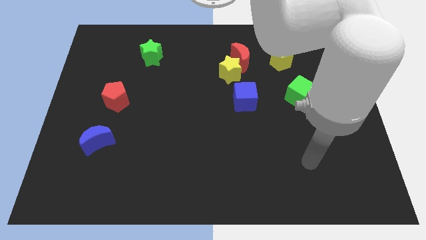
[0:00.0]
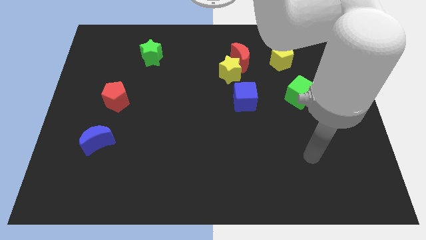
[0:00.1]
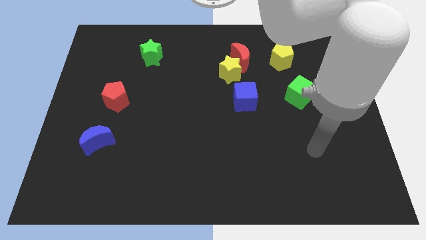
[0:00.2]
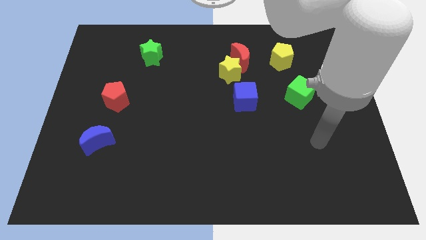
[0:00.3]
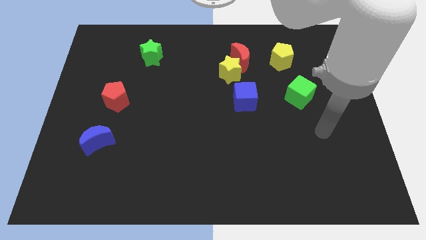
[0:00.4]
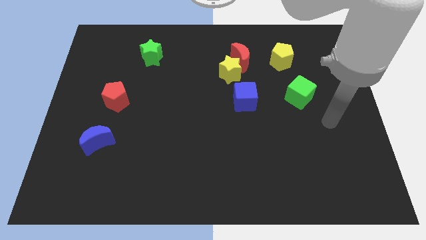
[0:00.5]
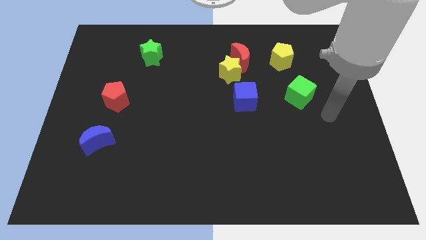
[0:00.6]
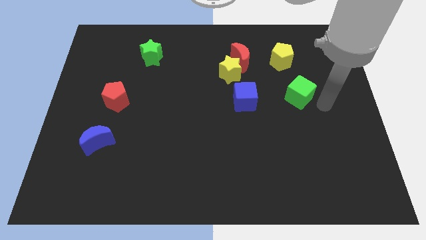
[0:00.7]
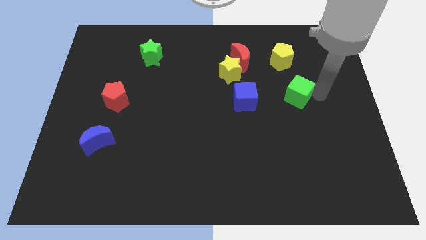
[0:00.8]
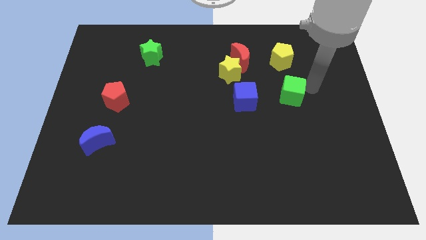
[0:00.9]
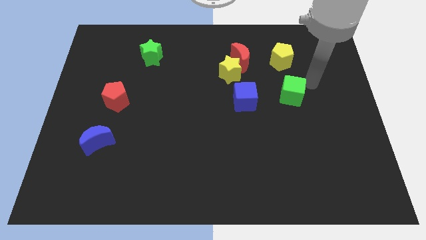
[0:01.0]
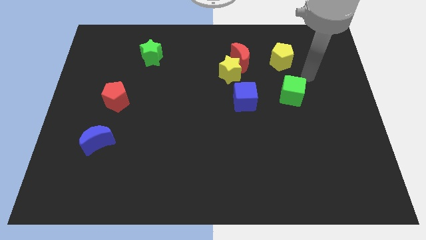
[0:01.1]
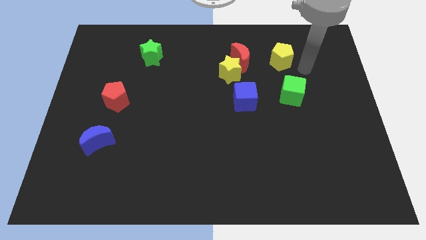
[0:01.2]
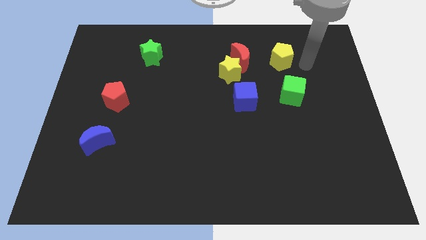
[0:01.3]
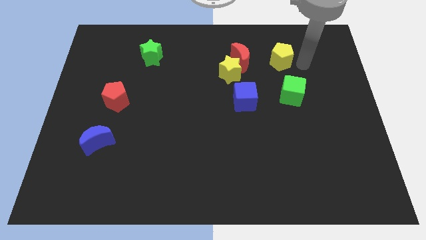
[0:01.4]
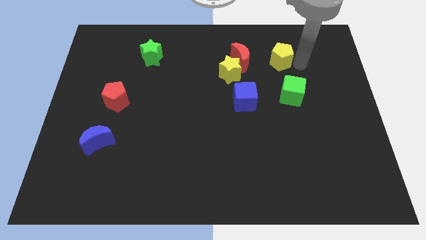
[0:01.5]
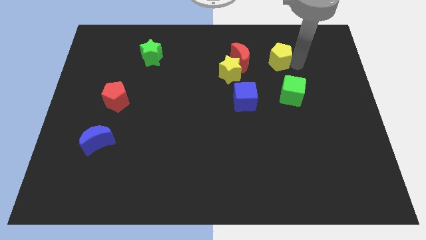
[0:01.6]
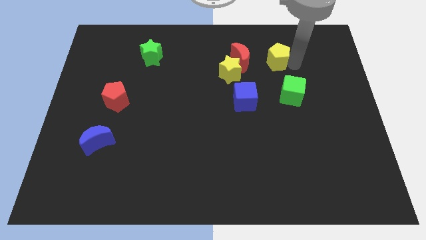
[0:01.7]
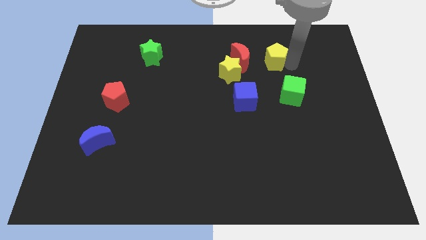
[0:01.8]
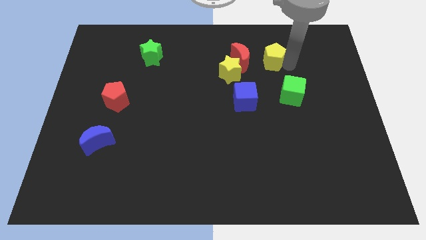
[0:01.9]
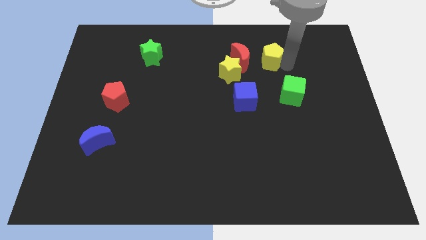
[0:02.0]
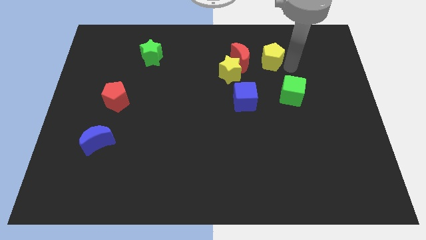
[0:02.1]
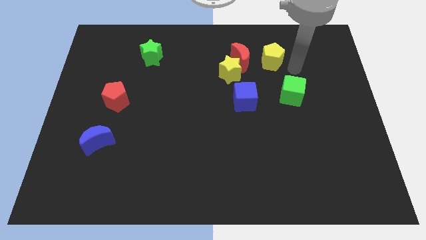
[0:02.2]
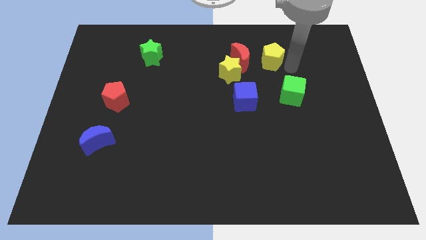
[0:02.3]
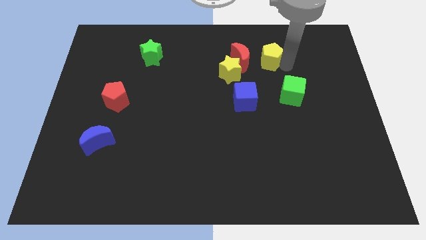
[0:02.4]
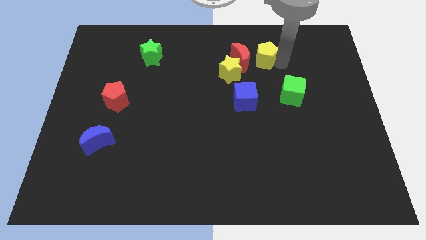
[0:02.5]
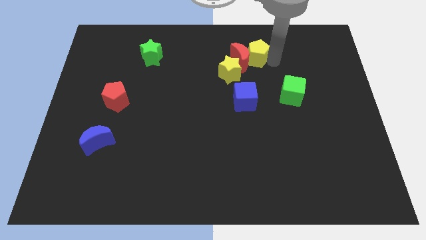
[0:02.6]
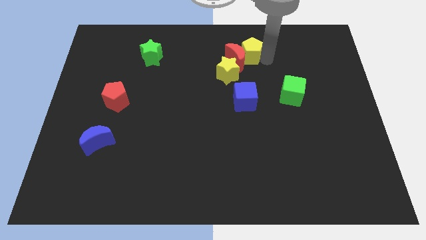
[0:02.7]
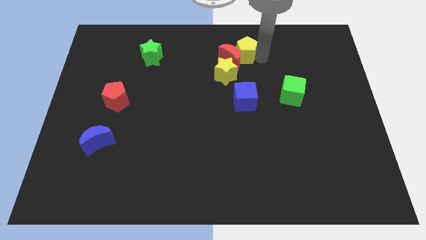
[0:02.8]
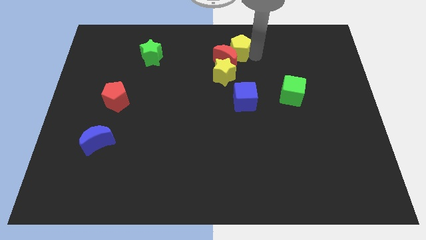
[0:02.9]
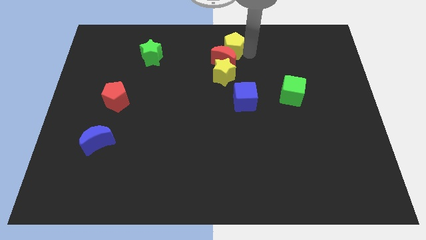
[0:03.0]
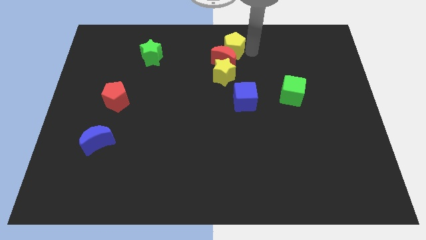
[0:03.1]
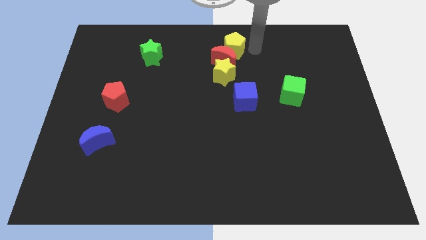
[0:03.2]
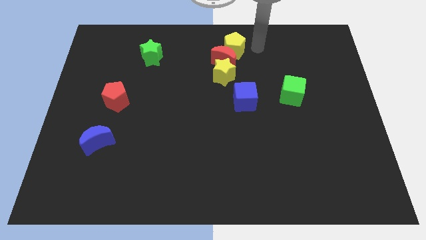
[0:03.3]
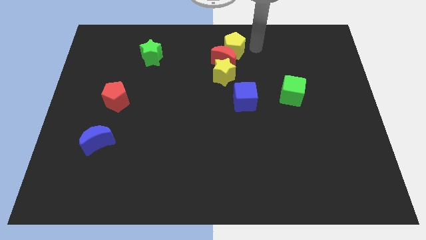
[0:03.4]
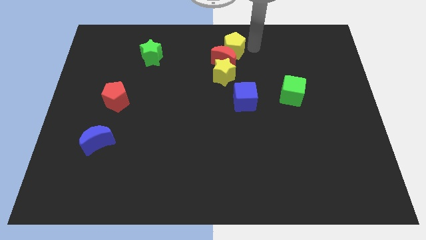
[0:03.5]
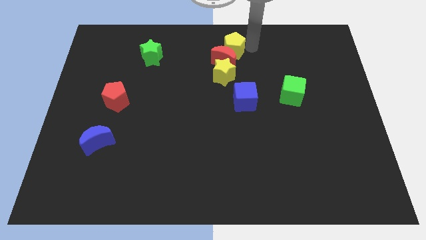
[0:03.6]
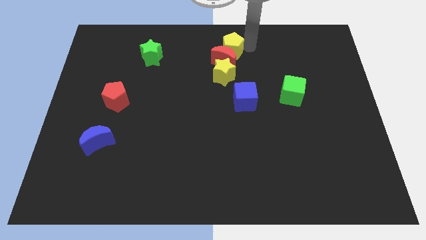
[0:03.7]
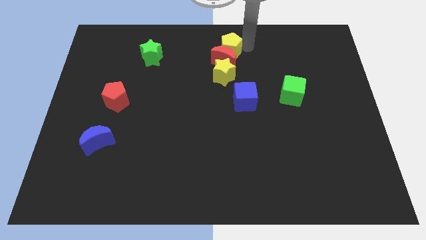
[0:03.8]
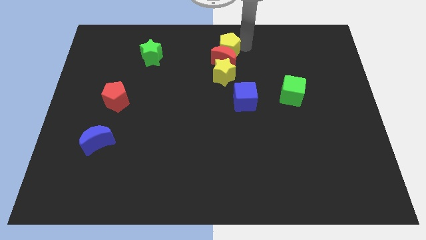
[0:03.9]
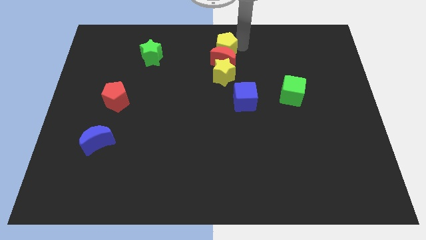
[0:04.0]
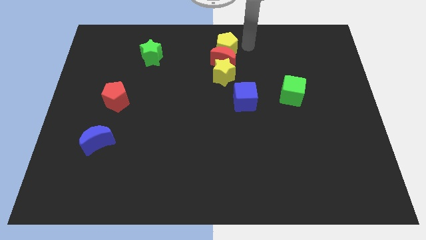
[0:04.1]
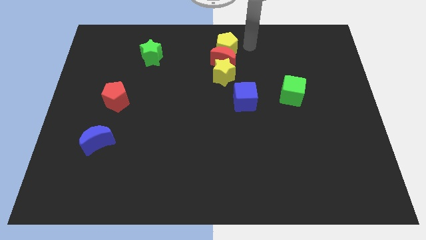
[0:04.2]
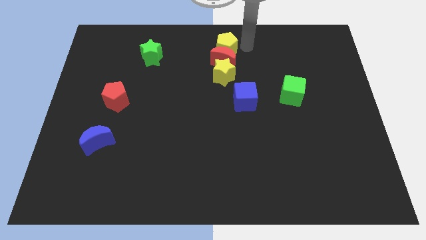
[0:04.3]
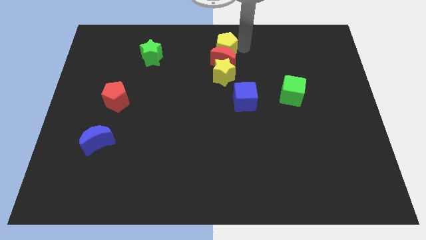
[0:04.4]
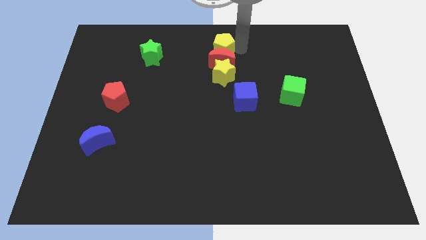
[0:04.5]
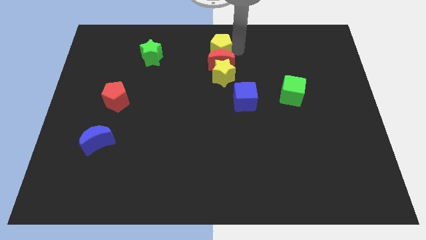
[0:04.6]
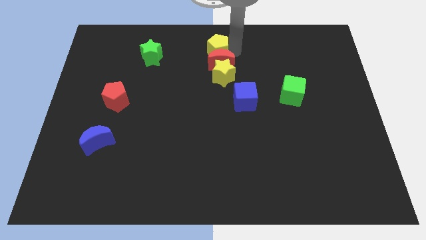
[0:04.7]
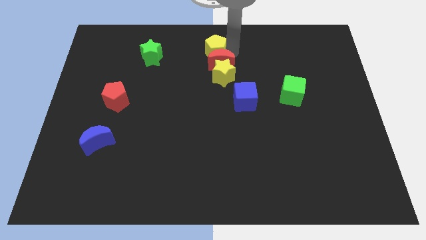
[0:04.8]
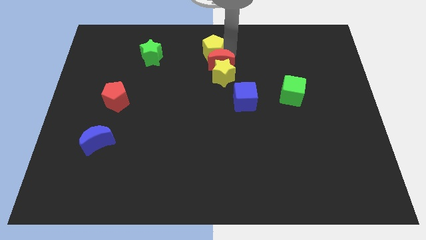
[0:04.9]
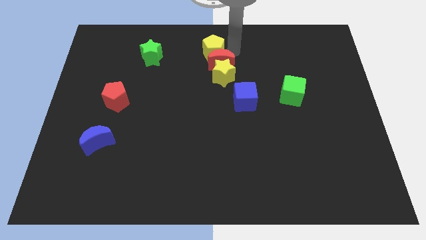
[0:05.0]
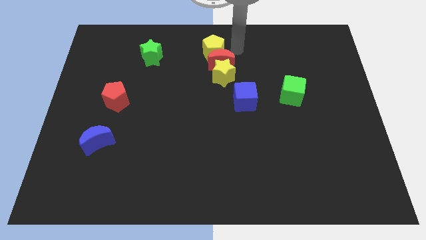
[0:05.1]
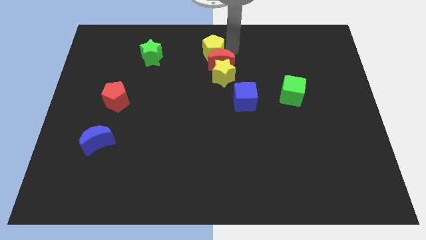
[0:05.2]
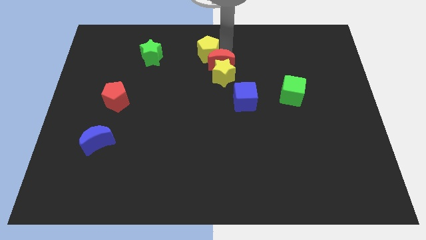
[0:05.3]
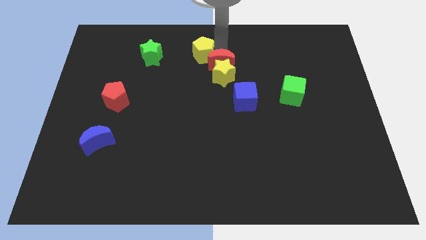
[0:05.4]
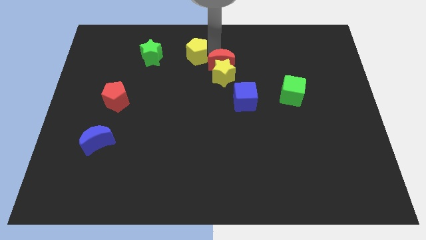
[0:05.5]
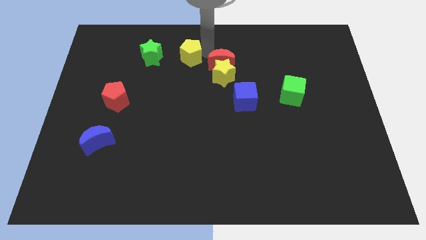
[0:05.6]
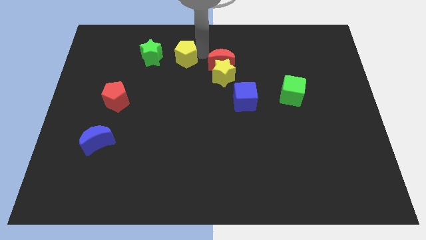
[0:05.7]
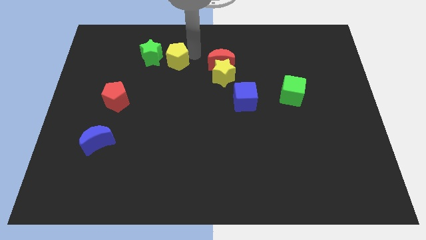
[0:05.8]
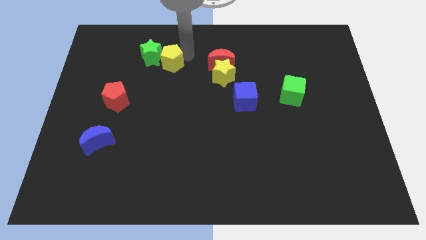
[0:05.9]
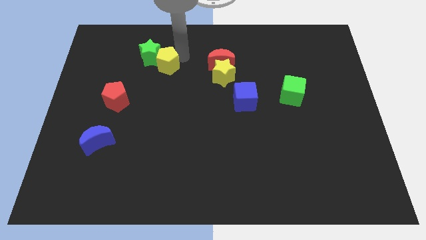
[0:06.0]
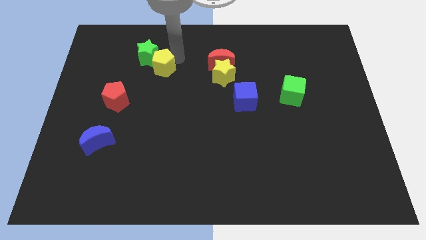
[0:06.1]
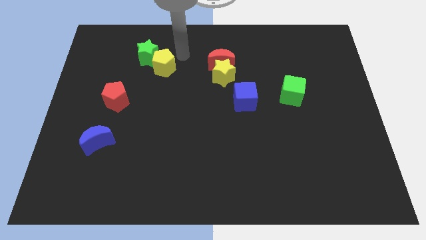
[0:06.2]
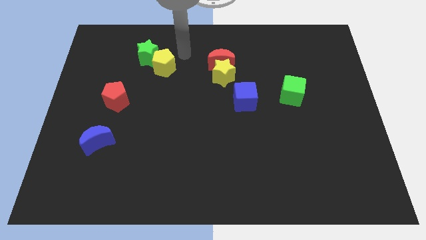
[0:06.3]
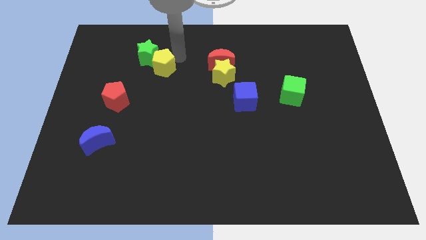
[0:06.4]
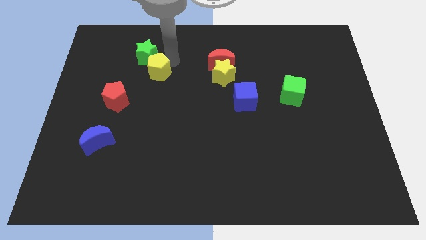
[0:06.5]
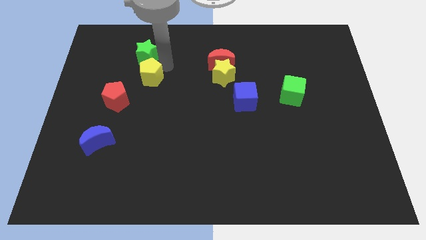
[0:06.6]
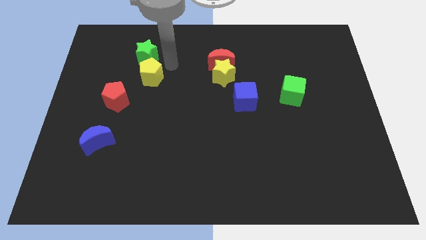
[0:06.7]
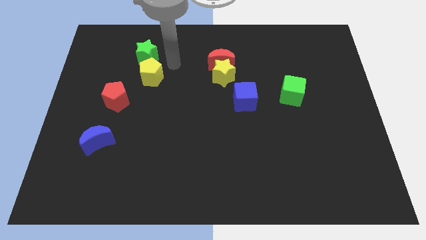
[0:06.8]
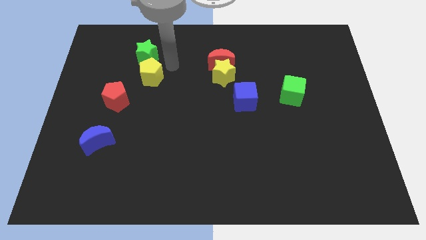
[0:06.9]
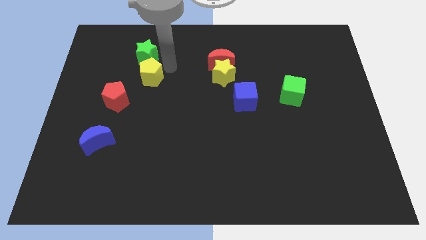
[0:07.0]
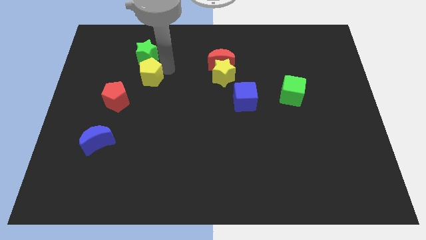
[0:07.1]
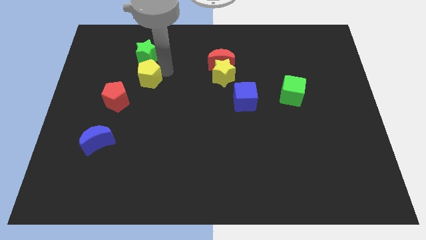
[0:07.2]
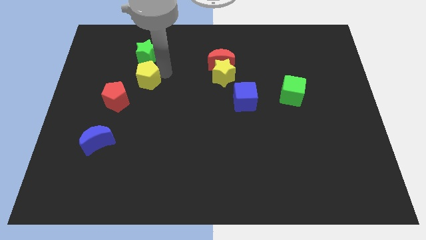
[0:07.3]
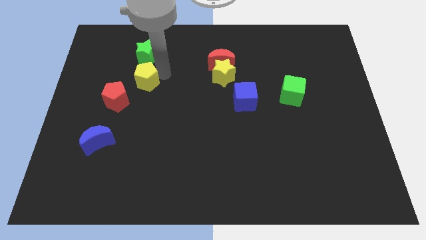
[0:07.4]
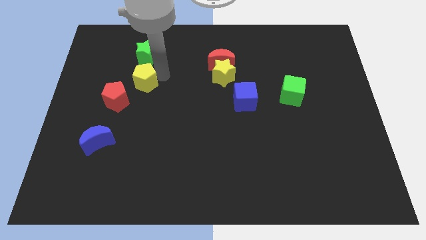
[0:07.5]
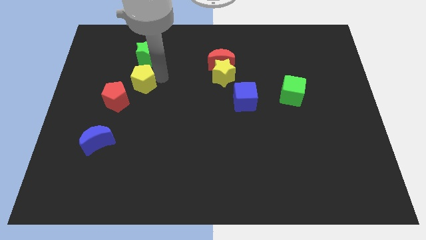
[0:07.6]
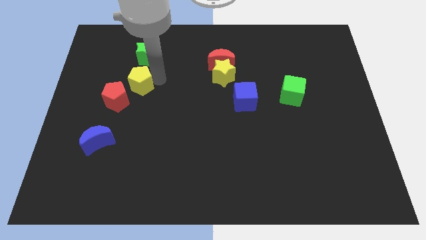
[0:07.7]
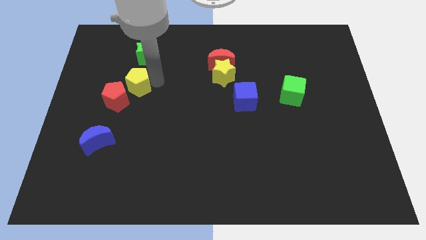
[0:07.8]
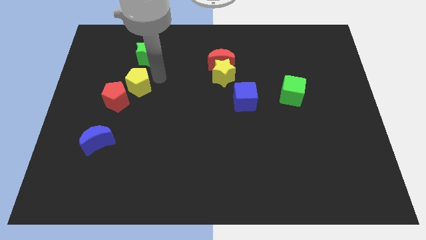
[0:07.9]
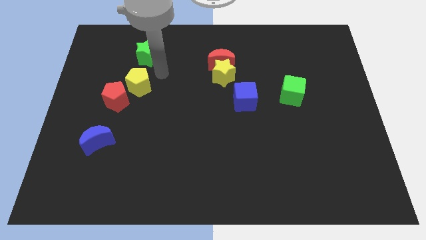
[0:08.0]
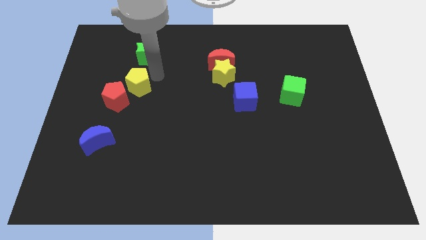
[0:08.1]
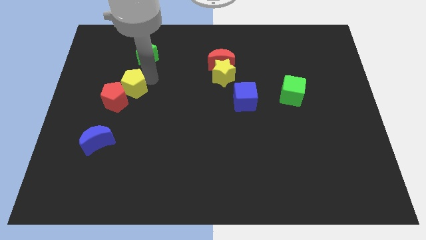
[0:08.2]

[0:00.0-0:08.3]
push the yellow pentagon to the red pentagon
